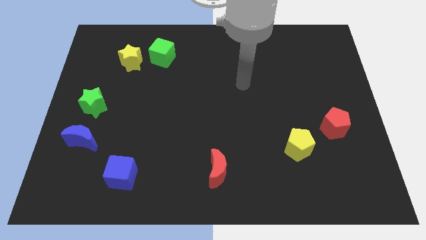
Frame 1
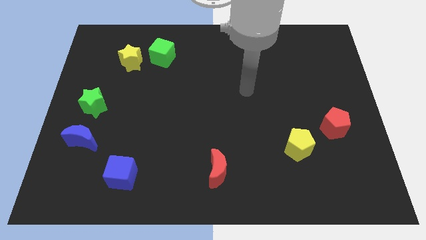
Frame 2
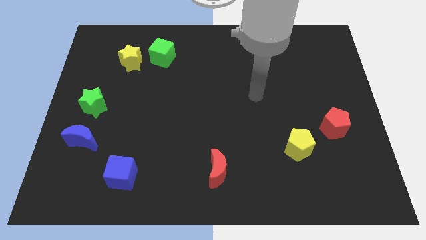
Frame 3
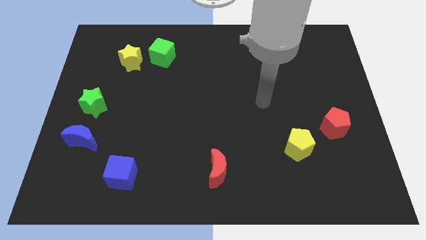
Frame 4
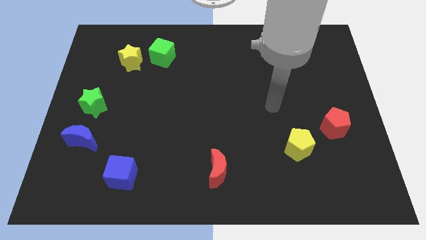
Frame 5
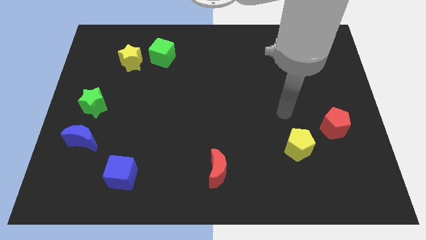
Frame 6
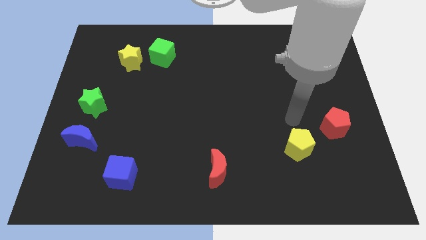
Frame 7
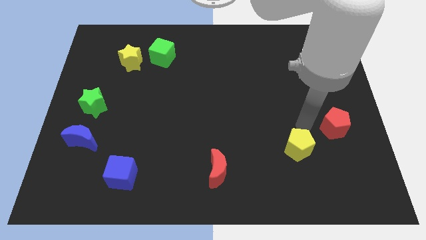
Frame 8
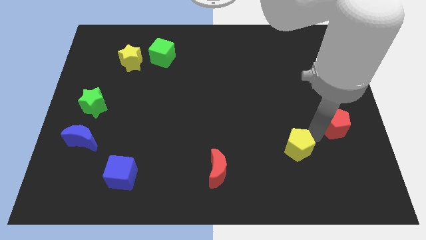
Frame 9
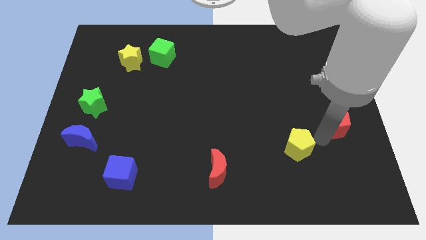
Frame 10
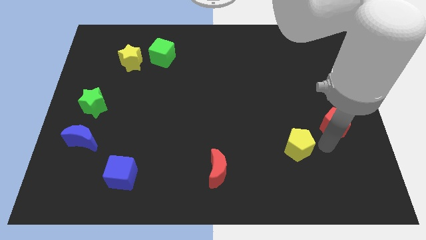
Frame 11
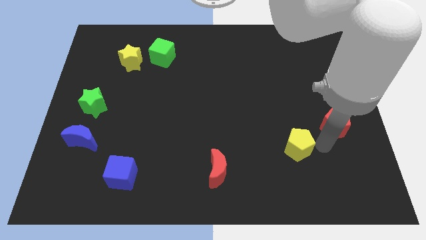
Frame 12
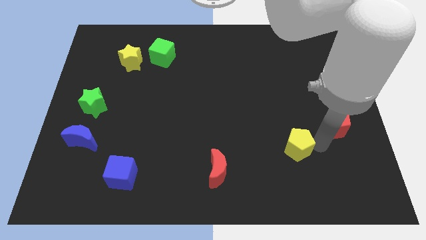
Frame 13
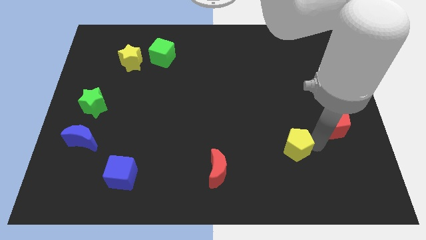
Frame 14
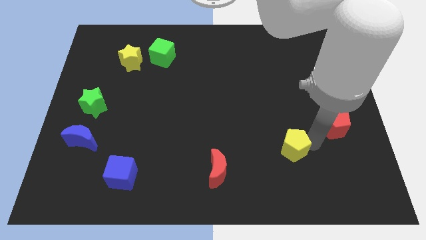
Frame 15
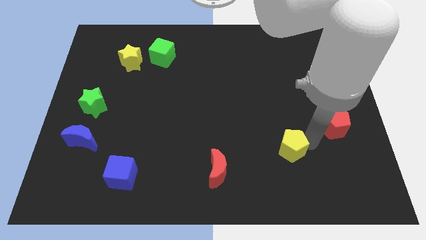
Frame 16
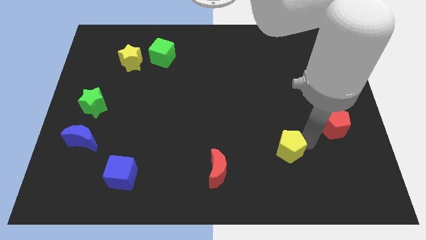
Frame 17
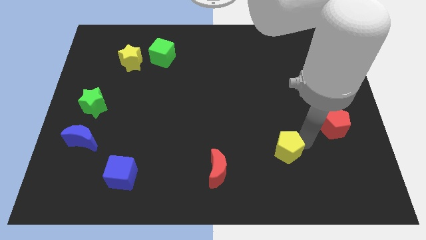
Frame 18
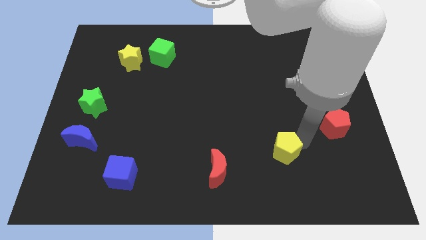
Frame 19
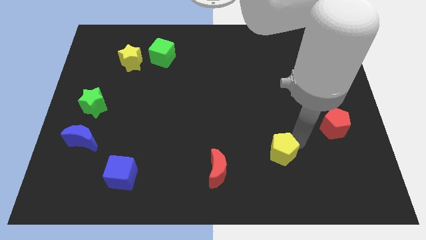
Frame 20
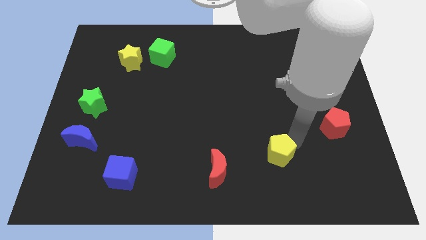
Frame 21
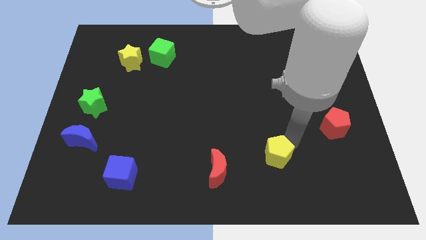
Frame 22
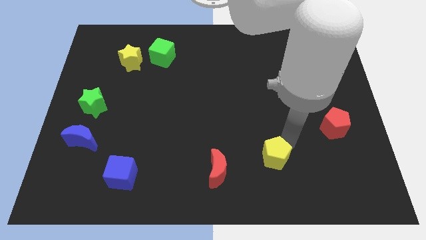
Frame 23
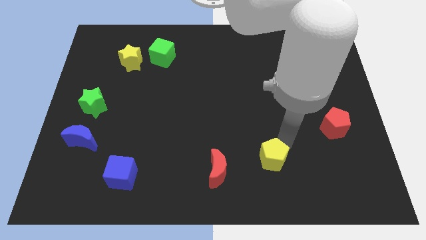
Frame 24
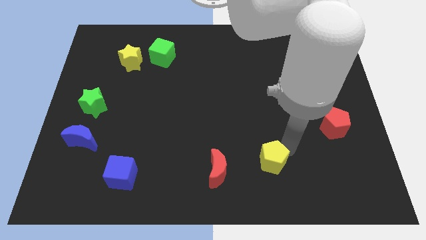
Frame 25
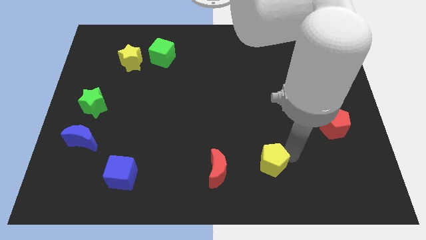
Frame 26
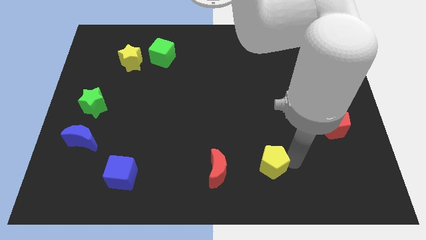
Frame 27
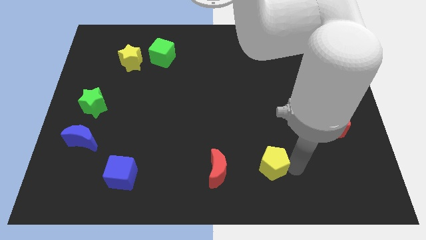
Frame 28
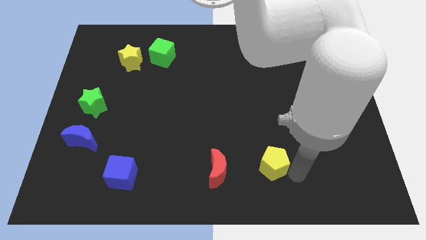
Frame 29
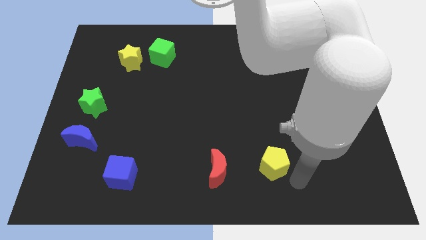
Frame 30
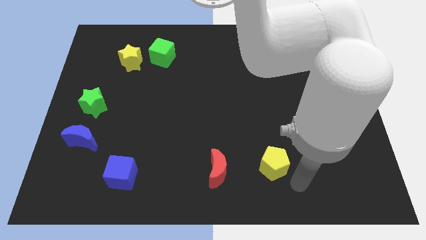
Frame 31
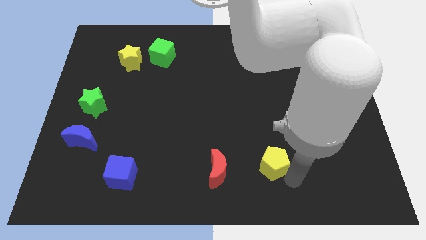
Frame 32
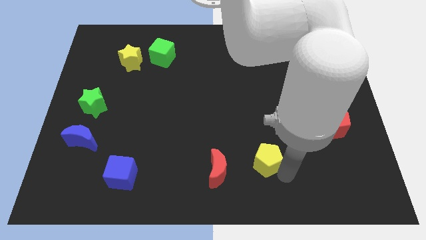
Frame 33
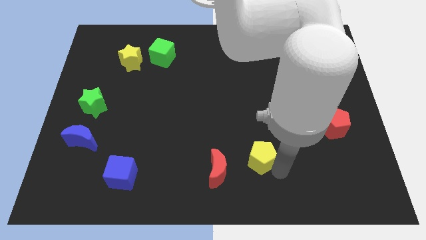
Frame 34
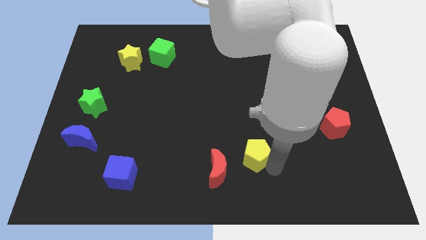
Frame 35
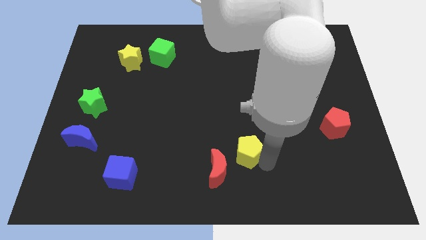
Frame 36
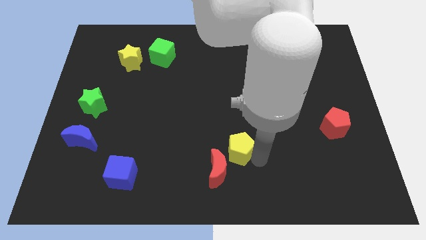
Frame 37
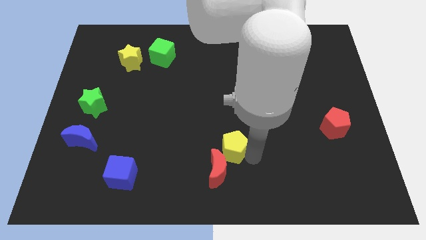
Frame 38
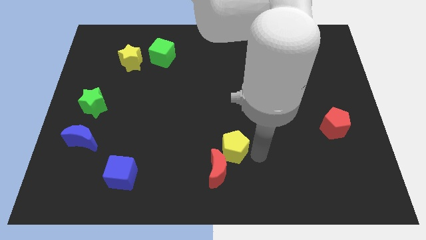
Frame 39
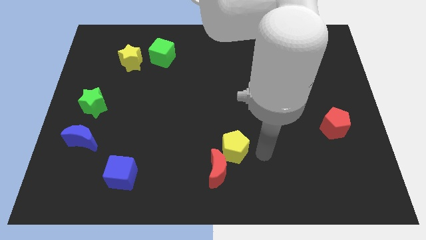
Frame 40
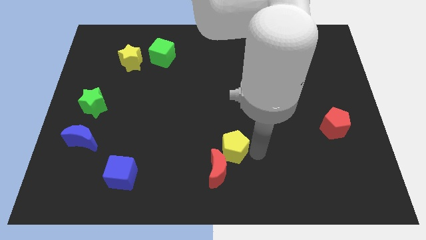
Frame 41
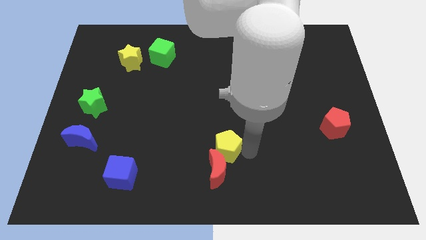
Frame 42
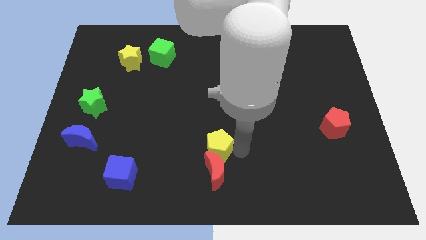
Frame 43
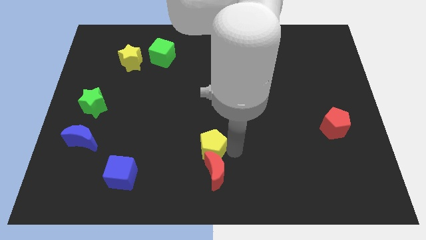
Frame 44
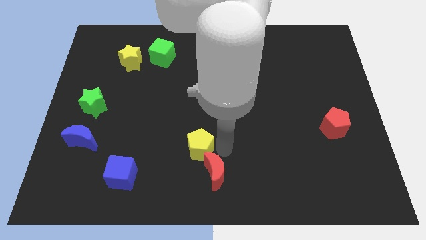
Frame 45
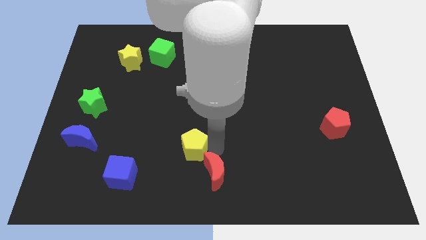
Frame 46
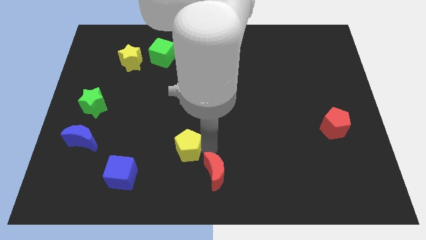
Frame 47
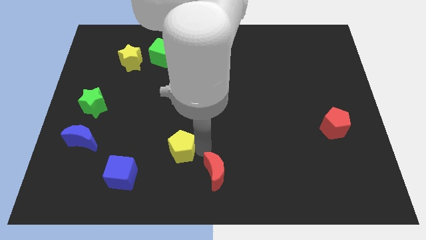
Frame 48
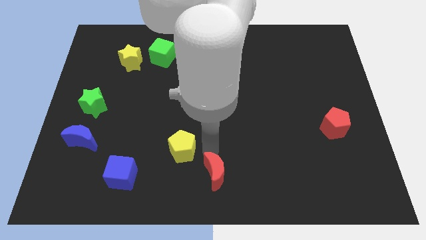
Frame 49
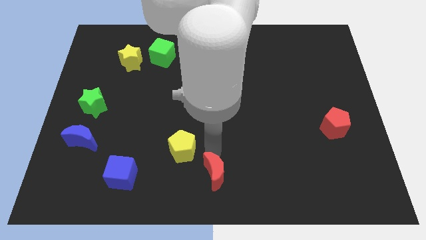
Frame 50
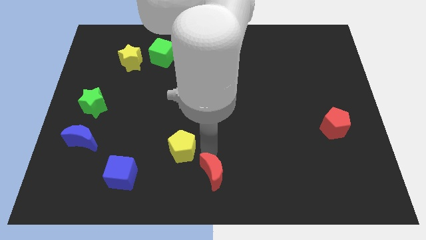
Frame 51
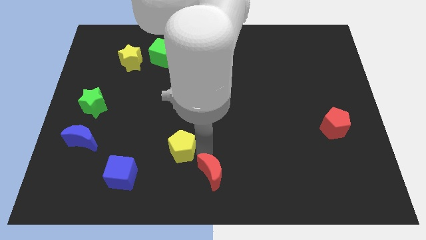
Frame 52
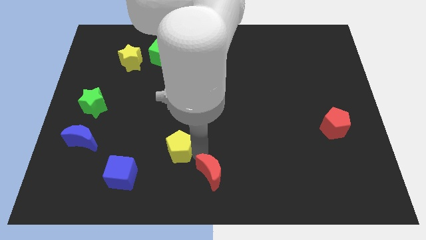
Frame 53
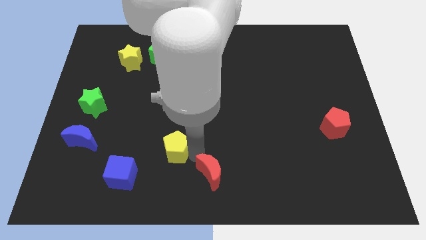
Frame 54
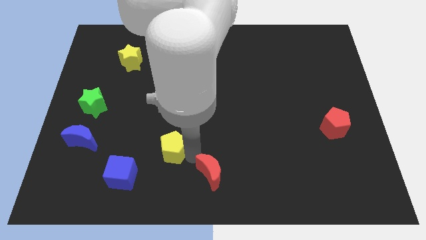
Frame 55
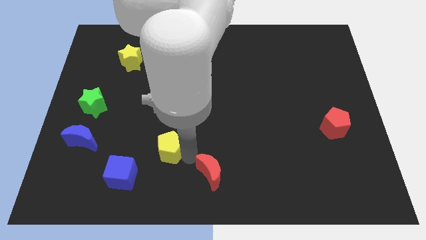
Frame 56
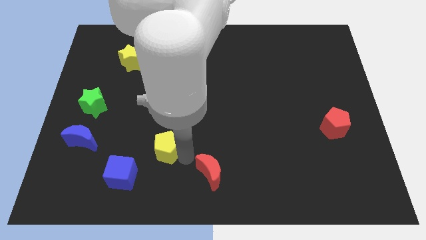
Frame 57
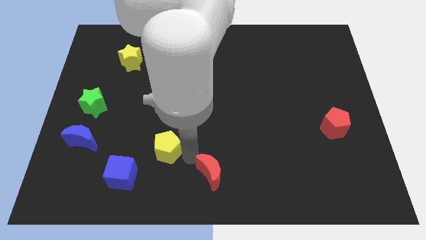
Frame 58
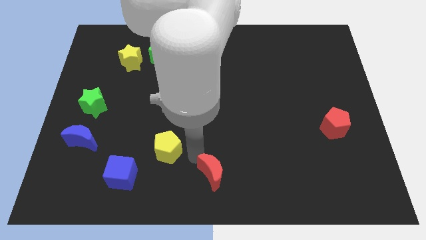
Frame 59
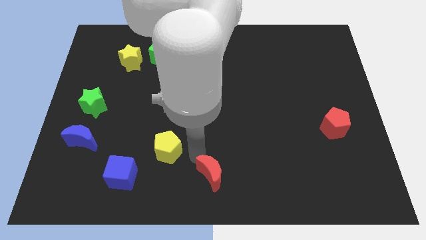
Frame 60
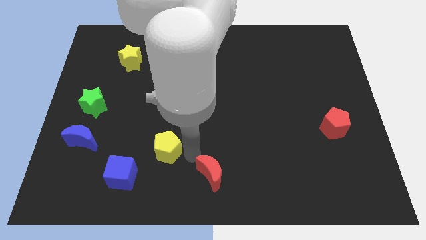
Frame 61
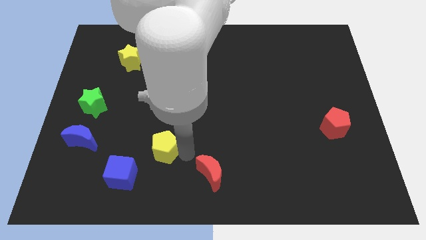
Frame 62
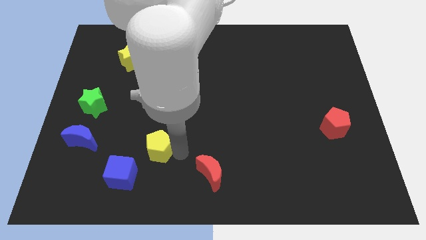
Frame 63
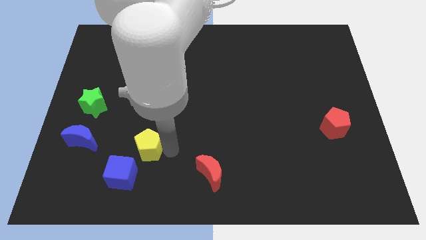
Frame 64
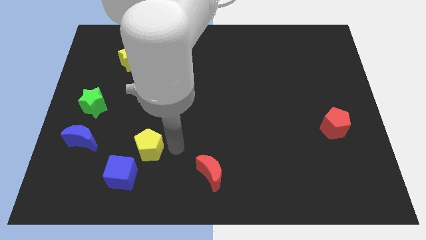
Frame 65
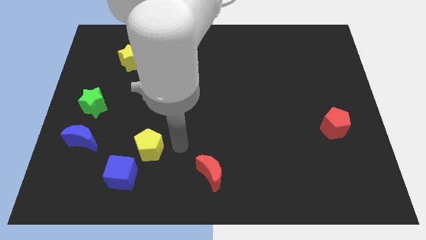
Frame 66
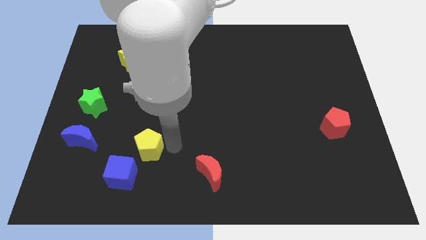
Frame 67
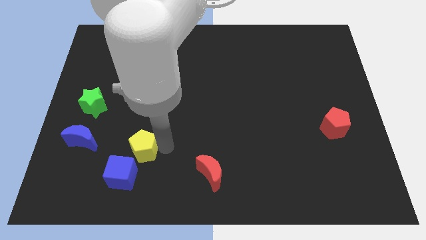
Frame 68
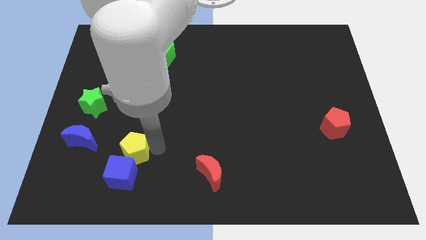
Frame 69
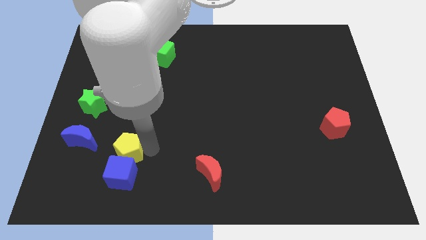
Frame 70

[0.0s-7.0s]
put the yellow pentagon diagonally up and to the left of the blue cube
